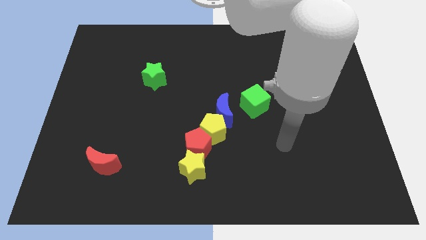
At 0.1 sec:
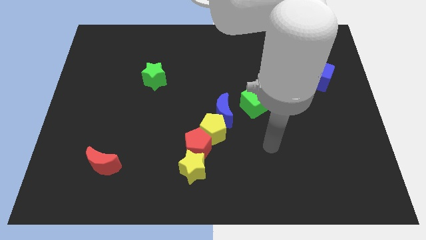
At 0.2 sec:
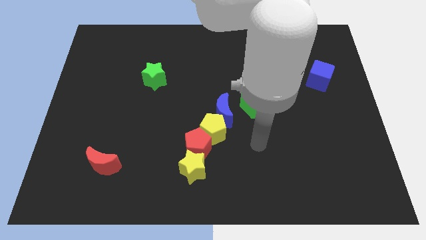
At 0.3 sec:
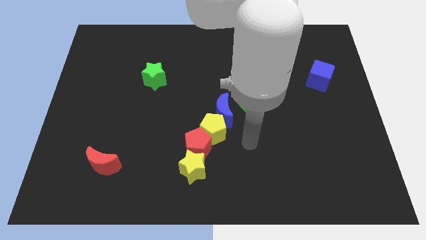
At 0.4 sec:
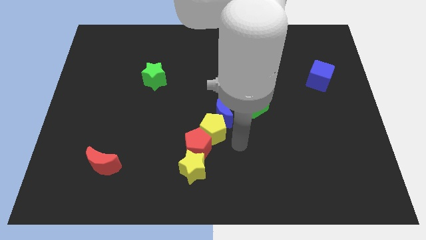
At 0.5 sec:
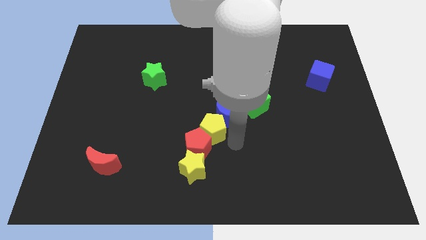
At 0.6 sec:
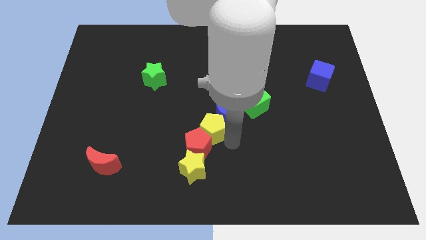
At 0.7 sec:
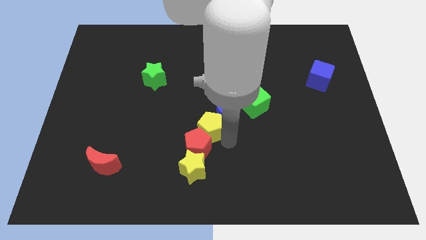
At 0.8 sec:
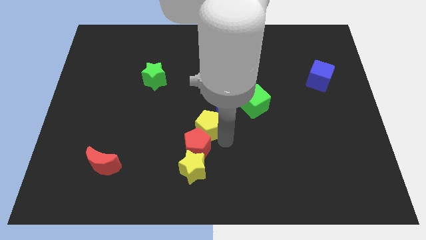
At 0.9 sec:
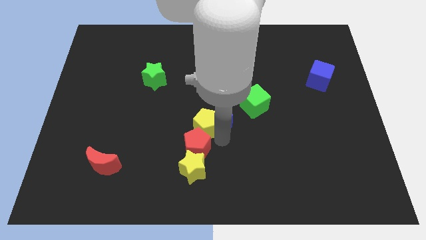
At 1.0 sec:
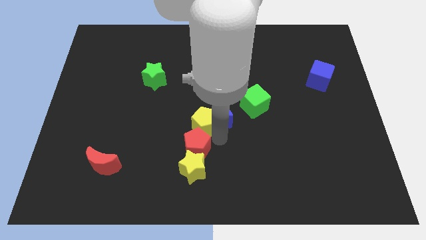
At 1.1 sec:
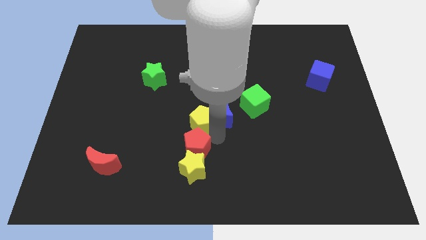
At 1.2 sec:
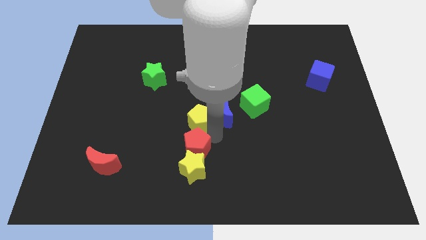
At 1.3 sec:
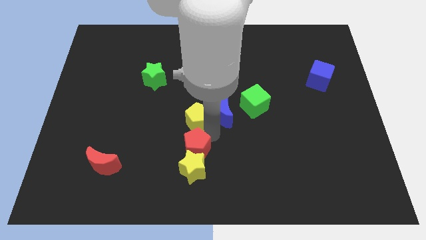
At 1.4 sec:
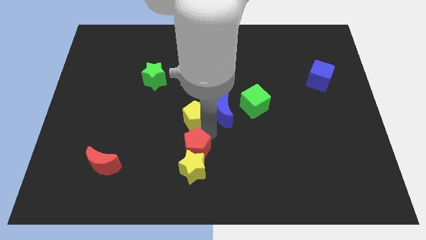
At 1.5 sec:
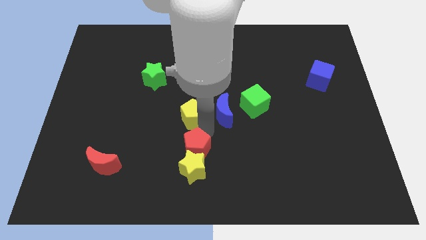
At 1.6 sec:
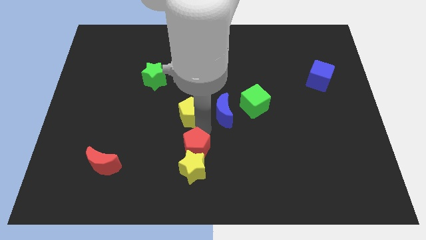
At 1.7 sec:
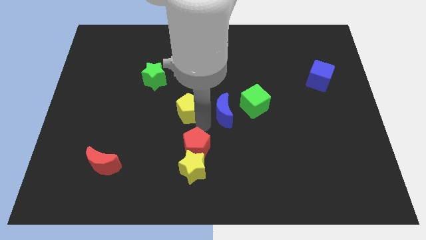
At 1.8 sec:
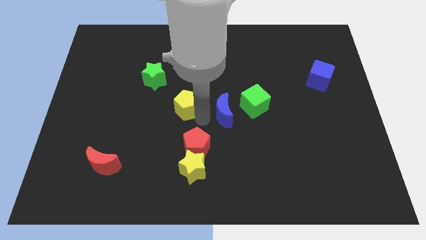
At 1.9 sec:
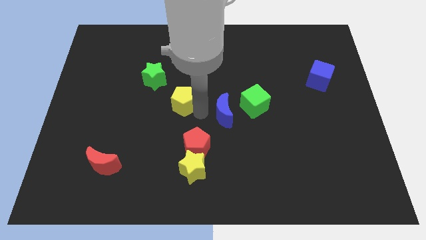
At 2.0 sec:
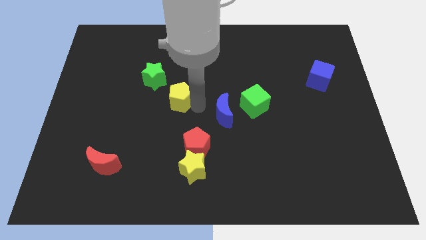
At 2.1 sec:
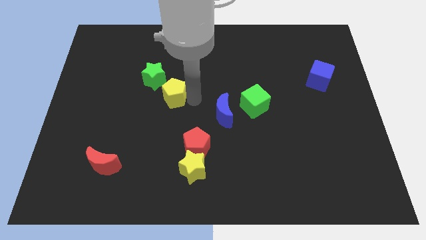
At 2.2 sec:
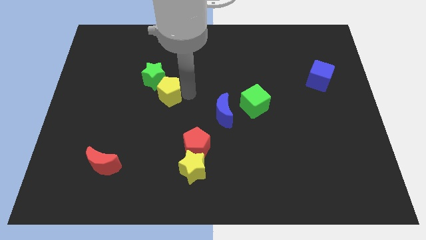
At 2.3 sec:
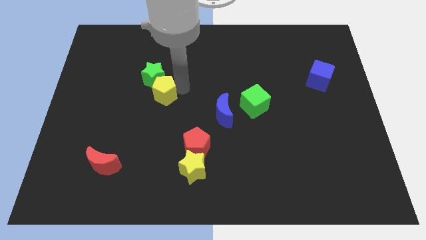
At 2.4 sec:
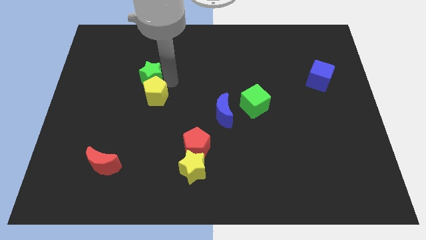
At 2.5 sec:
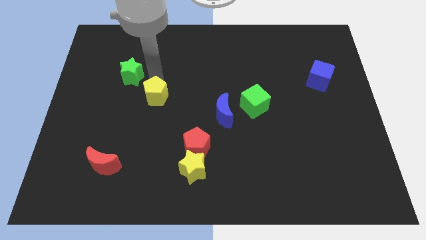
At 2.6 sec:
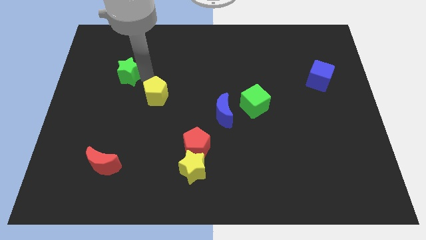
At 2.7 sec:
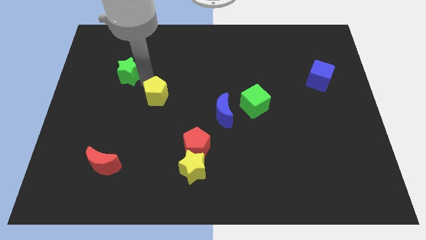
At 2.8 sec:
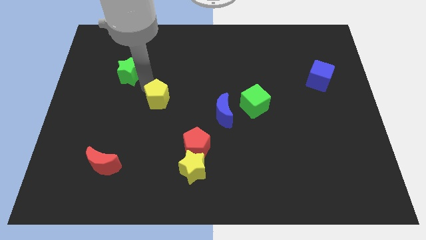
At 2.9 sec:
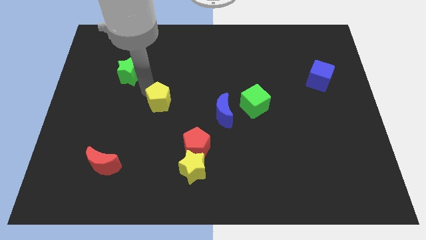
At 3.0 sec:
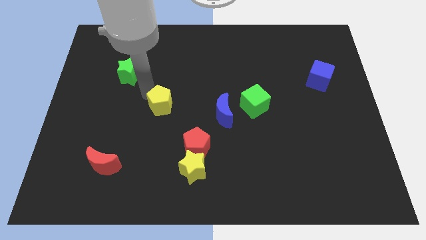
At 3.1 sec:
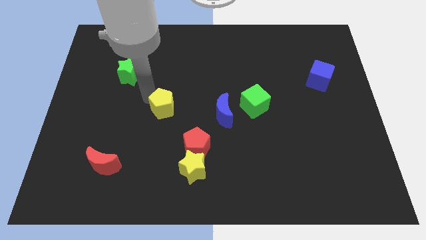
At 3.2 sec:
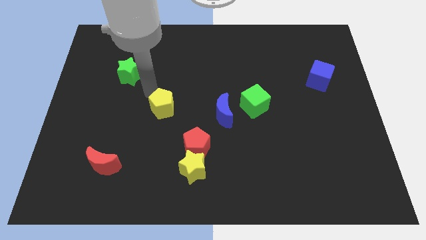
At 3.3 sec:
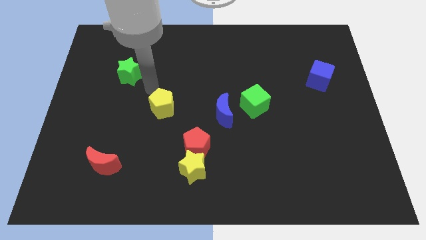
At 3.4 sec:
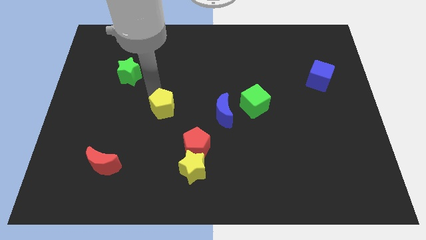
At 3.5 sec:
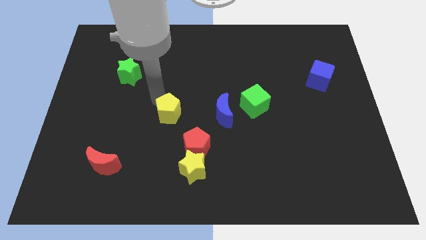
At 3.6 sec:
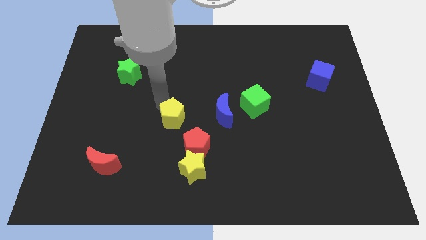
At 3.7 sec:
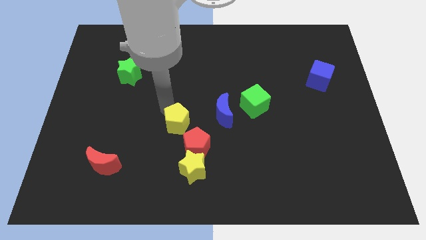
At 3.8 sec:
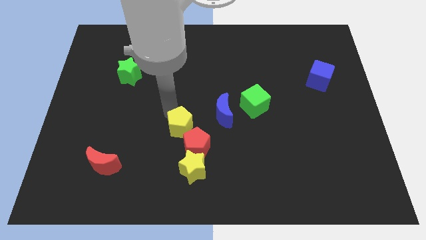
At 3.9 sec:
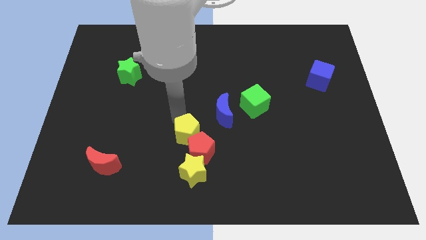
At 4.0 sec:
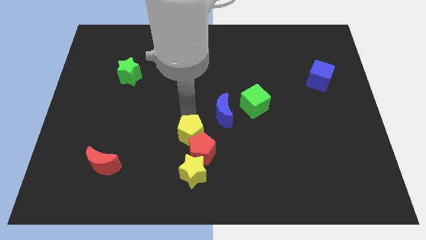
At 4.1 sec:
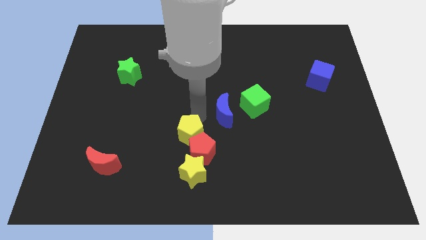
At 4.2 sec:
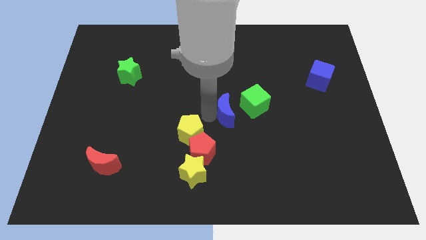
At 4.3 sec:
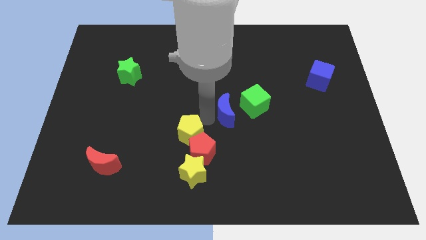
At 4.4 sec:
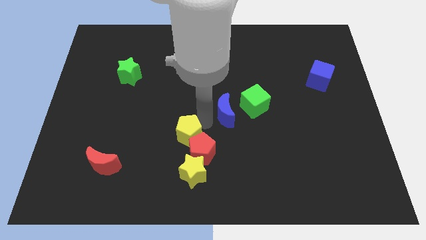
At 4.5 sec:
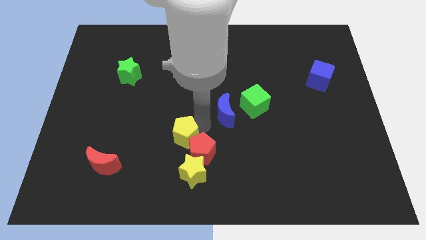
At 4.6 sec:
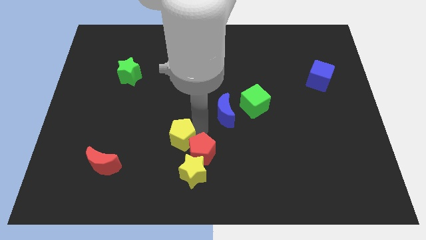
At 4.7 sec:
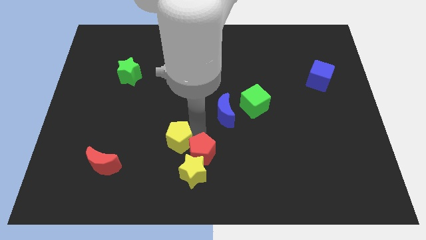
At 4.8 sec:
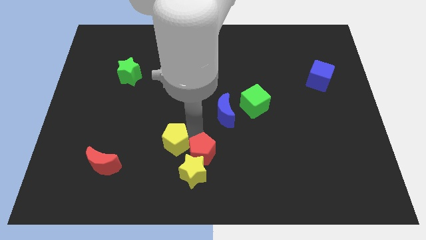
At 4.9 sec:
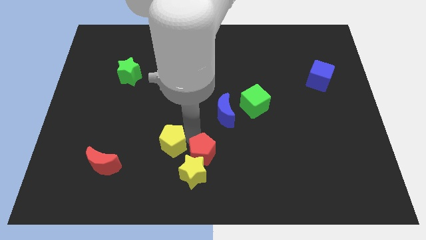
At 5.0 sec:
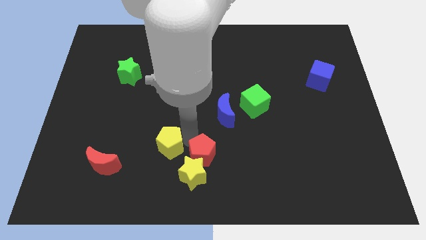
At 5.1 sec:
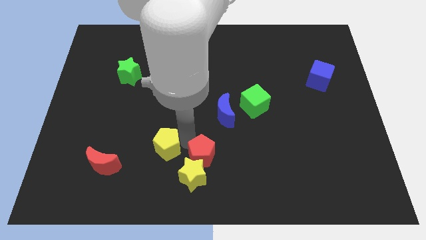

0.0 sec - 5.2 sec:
slide the yellow pentagon to the right side of the red moon

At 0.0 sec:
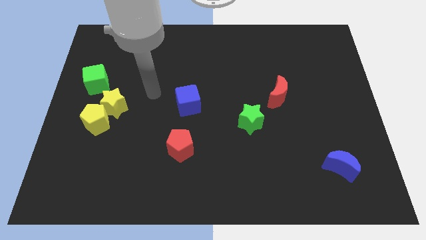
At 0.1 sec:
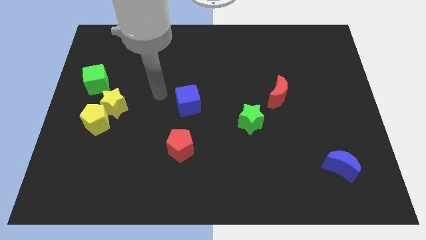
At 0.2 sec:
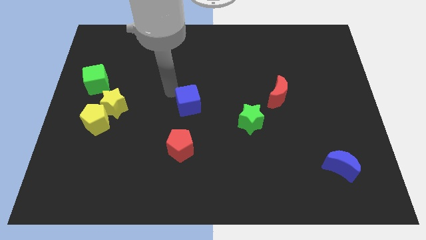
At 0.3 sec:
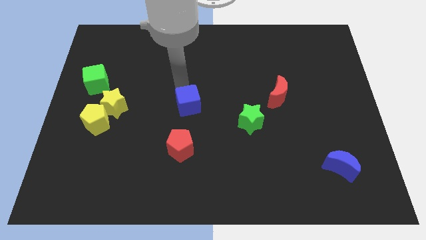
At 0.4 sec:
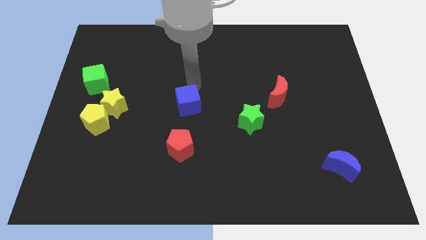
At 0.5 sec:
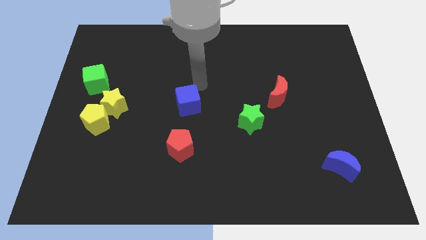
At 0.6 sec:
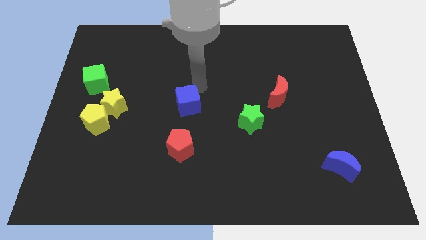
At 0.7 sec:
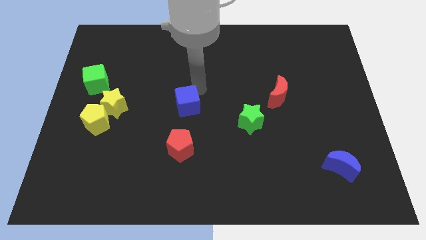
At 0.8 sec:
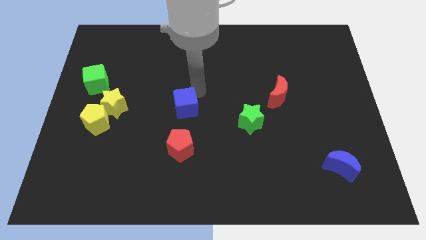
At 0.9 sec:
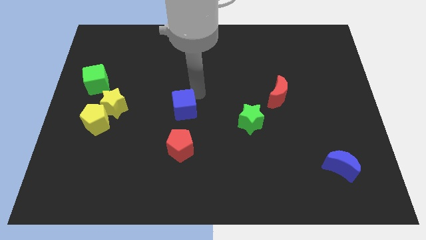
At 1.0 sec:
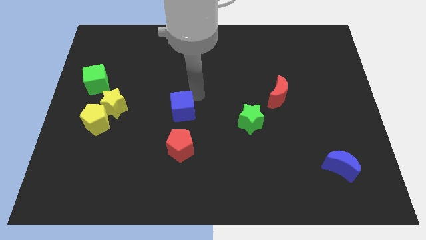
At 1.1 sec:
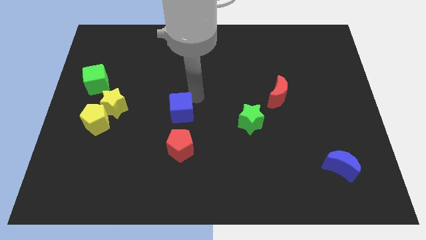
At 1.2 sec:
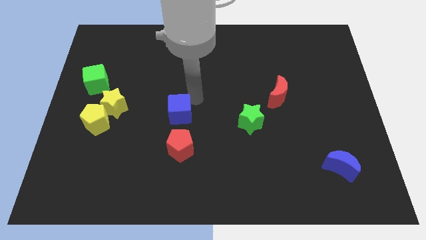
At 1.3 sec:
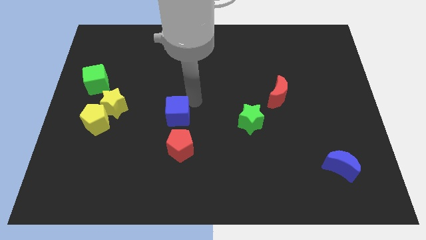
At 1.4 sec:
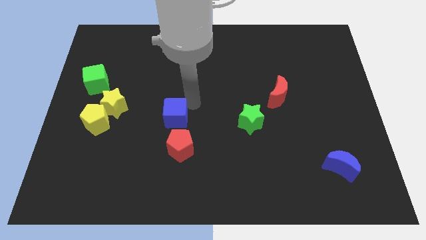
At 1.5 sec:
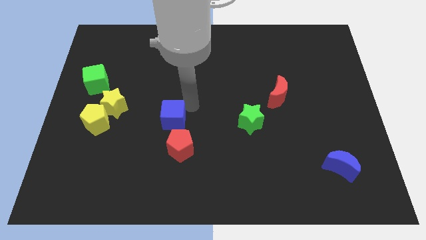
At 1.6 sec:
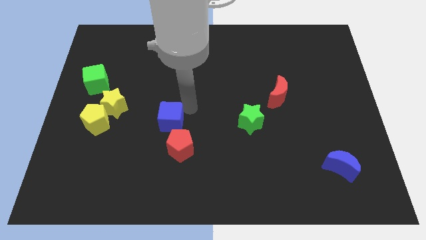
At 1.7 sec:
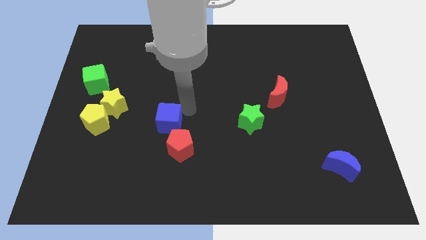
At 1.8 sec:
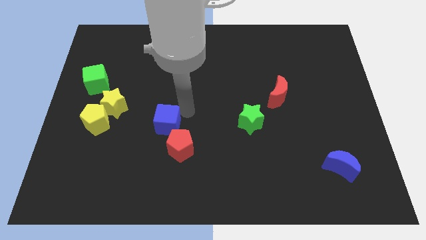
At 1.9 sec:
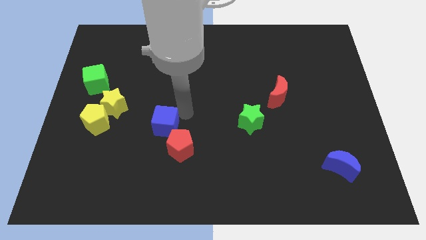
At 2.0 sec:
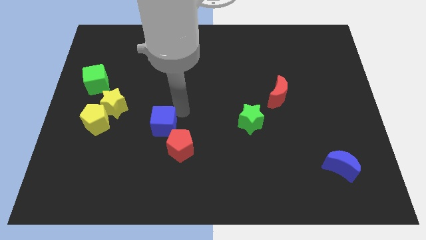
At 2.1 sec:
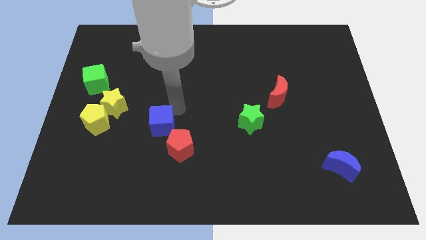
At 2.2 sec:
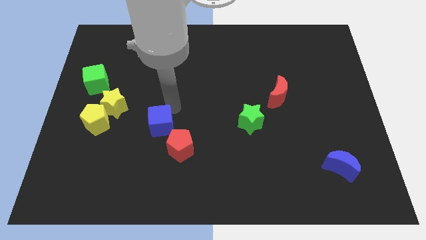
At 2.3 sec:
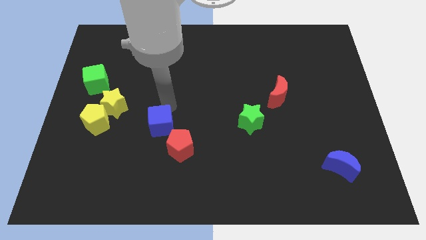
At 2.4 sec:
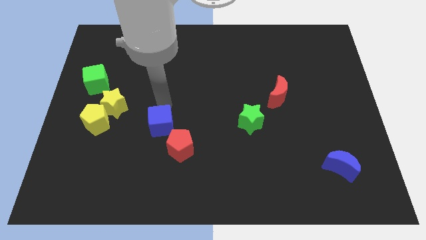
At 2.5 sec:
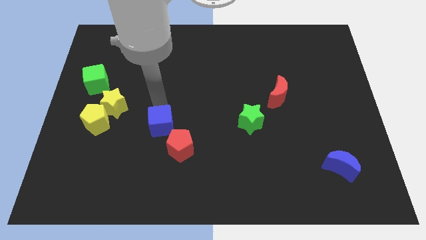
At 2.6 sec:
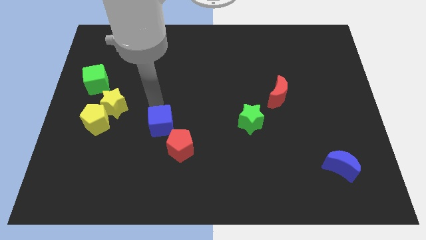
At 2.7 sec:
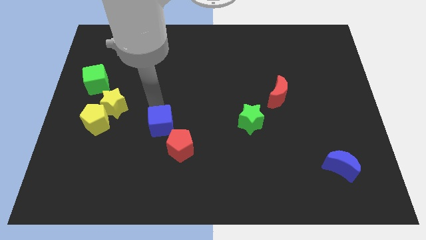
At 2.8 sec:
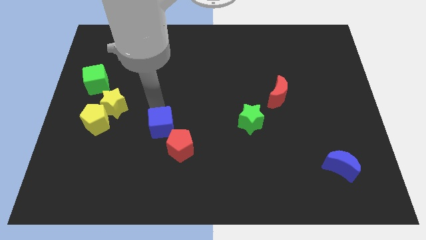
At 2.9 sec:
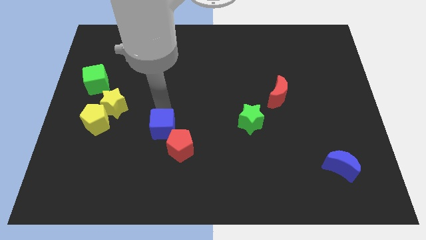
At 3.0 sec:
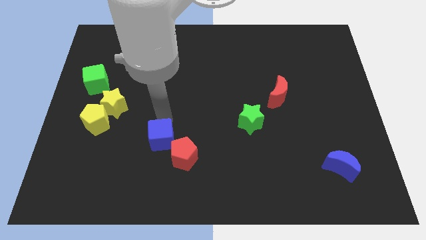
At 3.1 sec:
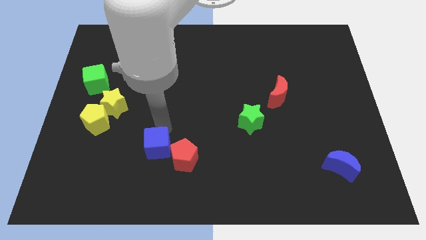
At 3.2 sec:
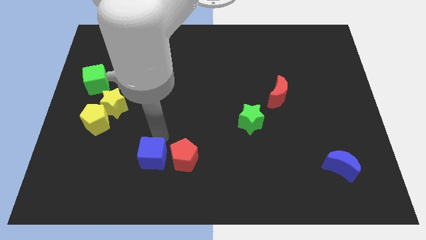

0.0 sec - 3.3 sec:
move the blue cube diagonally down and to the left of the red pentagon
